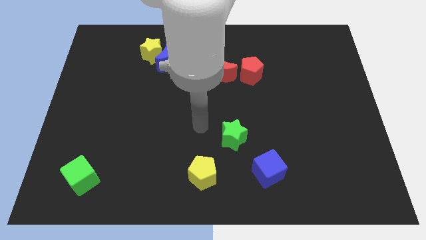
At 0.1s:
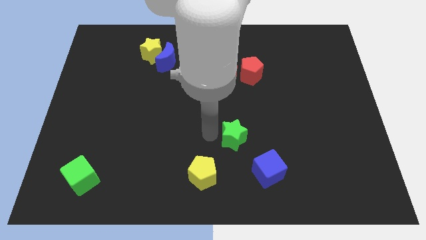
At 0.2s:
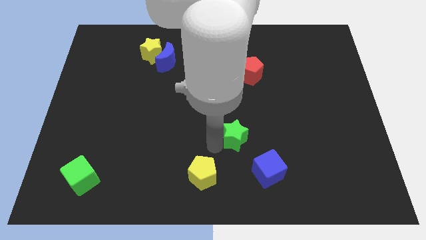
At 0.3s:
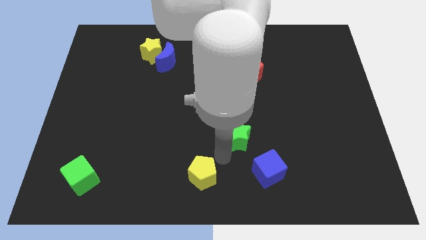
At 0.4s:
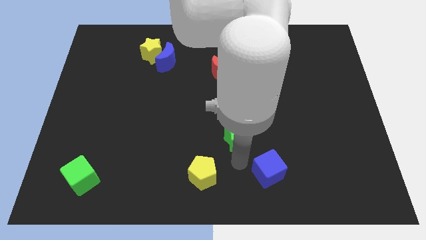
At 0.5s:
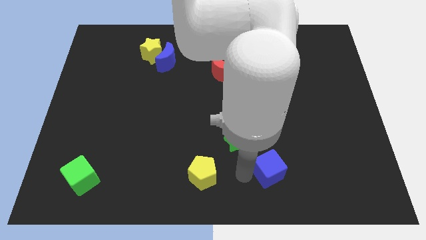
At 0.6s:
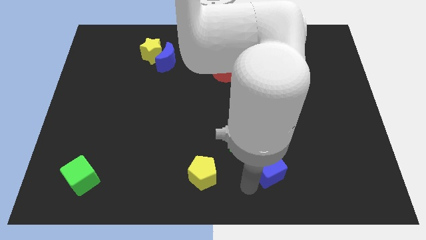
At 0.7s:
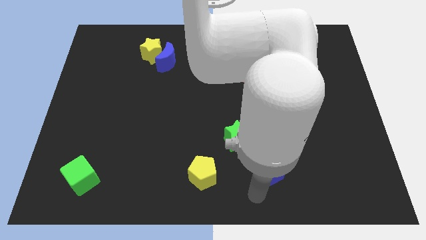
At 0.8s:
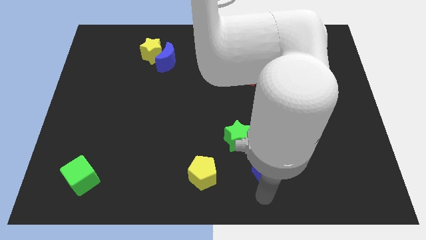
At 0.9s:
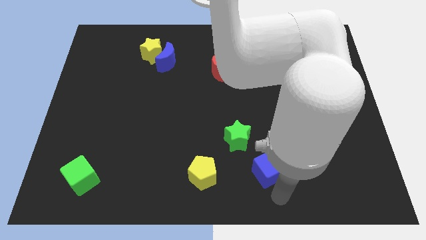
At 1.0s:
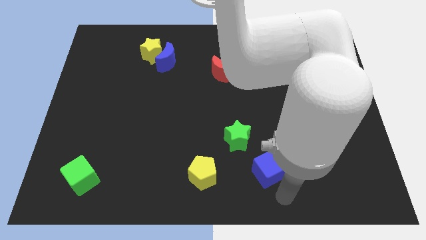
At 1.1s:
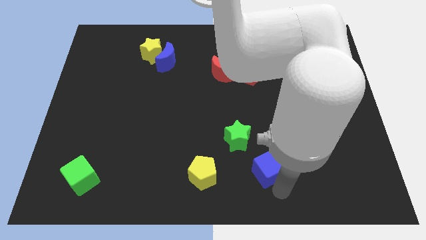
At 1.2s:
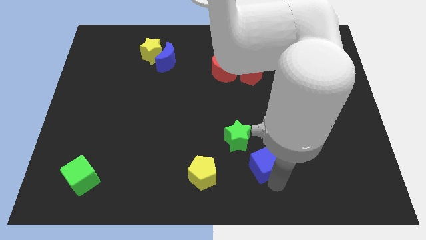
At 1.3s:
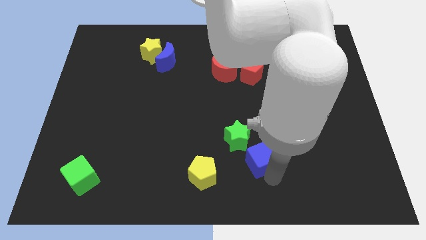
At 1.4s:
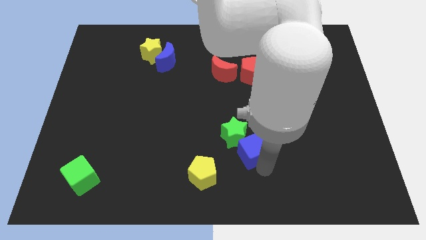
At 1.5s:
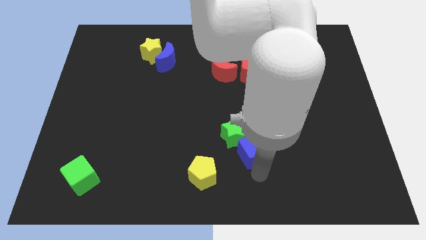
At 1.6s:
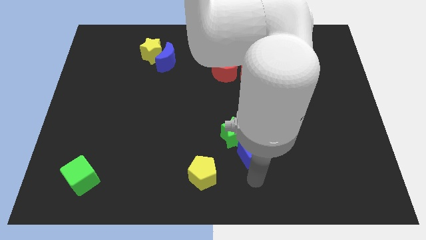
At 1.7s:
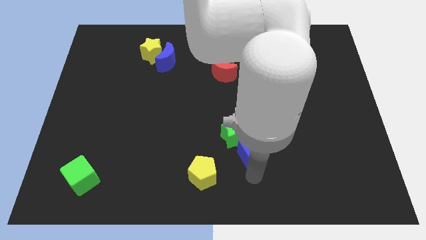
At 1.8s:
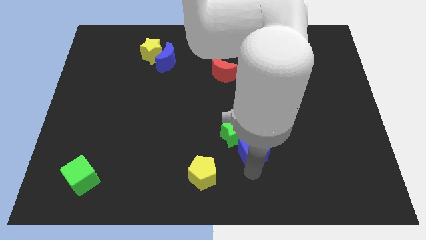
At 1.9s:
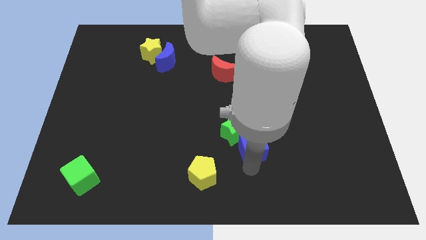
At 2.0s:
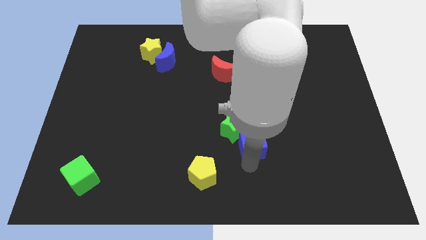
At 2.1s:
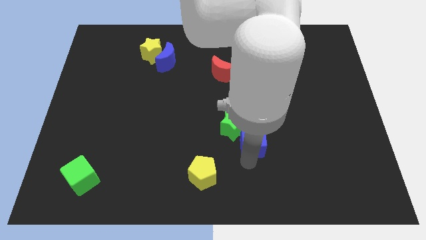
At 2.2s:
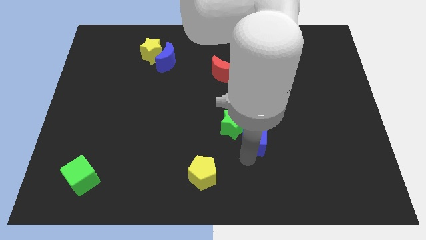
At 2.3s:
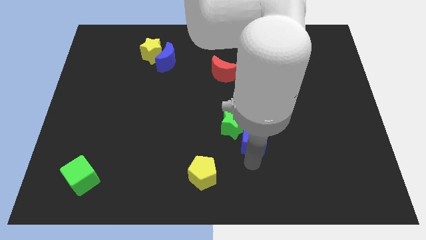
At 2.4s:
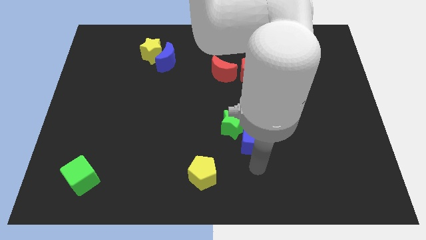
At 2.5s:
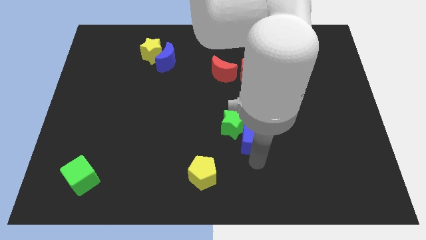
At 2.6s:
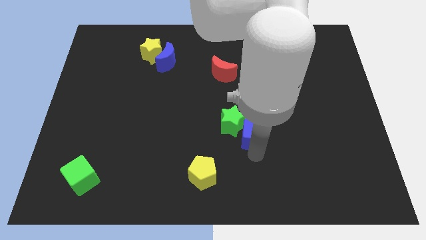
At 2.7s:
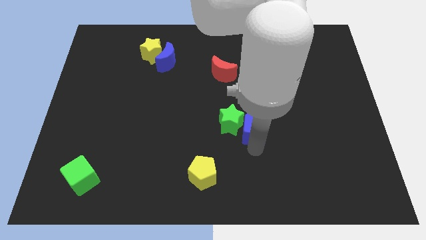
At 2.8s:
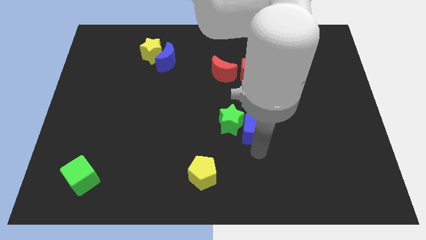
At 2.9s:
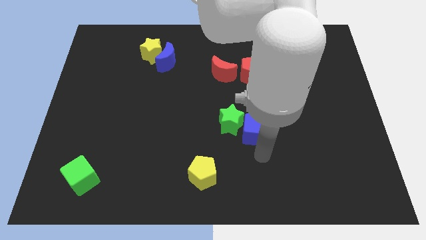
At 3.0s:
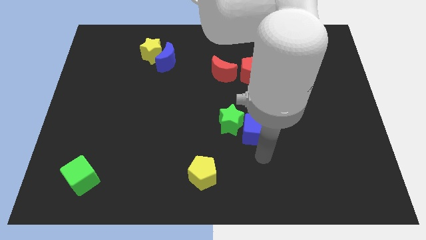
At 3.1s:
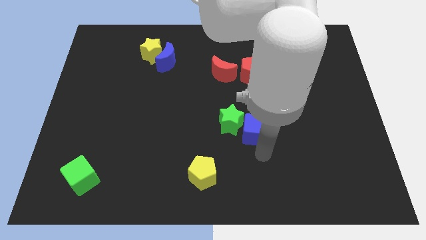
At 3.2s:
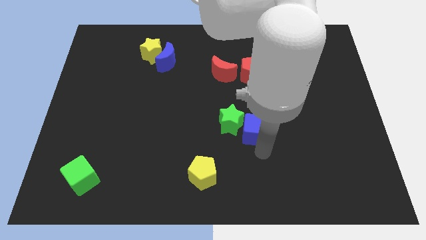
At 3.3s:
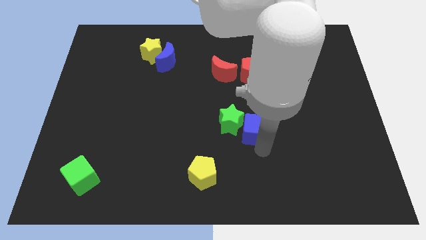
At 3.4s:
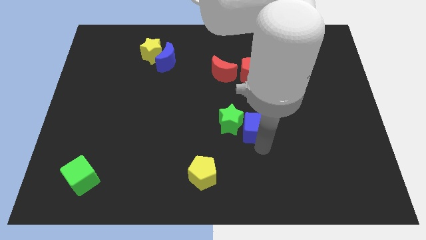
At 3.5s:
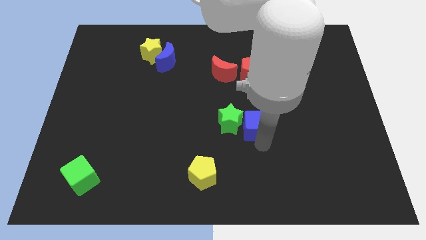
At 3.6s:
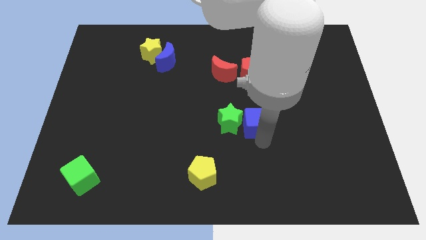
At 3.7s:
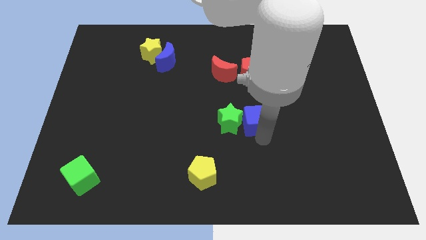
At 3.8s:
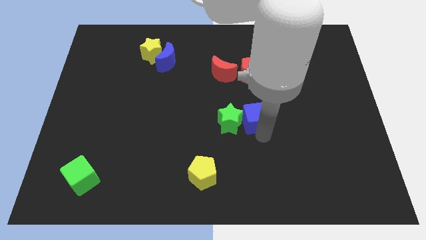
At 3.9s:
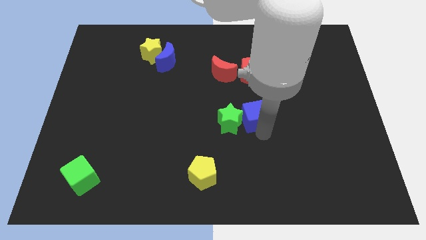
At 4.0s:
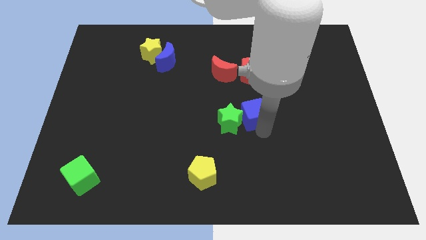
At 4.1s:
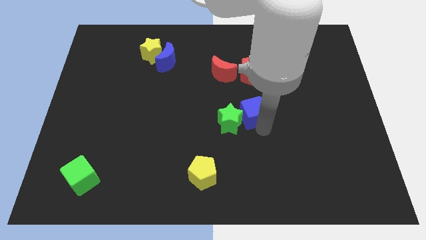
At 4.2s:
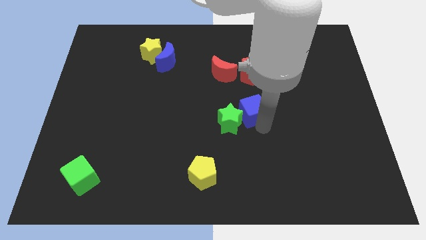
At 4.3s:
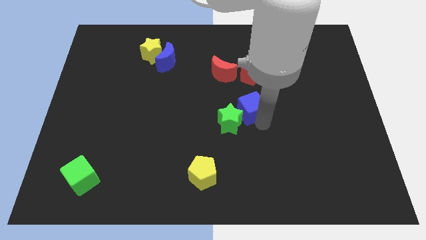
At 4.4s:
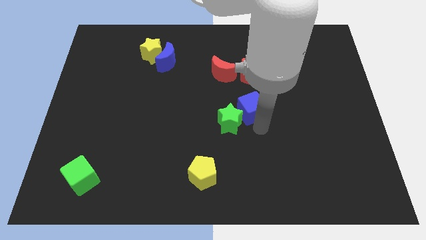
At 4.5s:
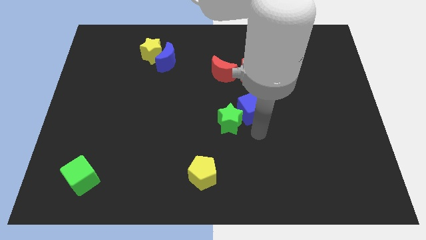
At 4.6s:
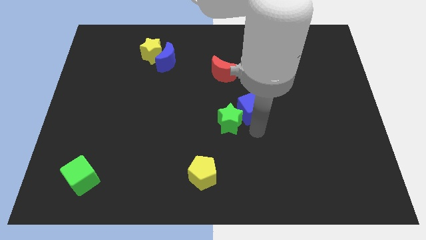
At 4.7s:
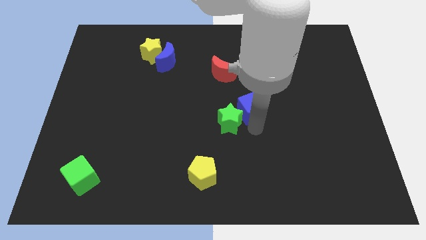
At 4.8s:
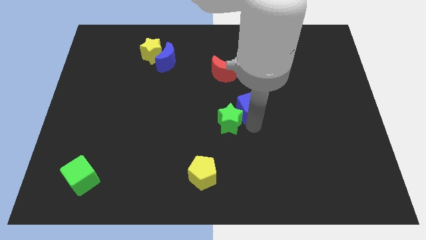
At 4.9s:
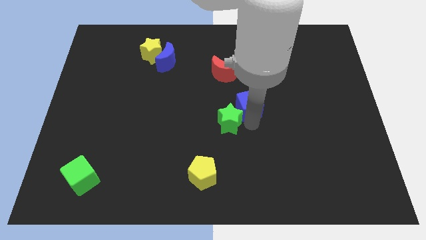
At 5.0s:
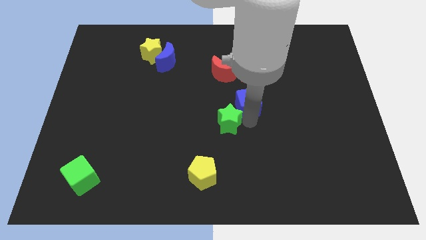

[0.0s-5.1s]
move the blue cube to the bottom right of the red moon

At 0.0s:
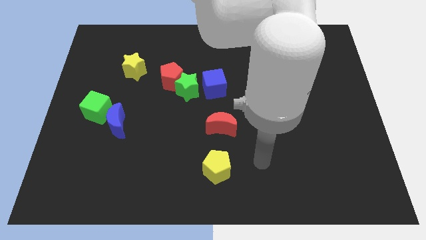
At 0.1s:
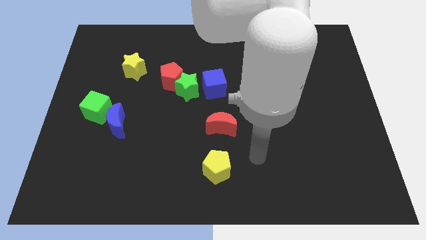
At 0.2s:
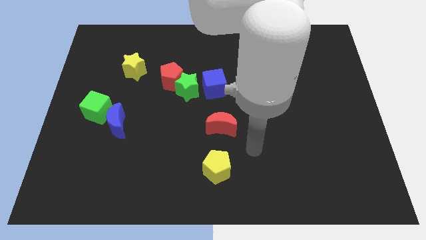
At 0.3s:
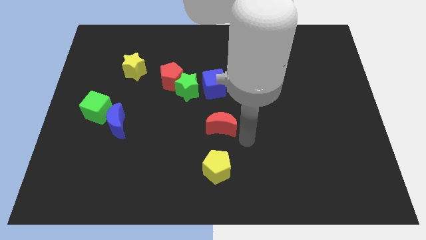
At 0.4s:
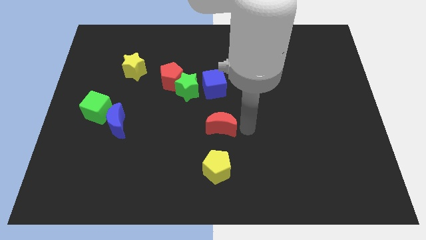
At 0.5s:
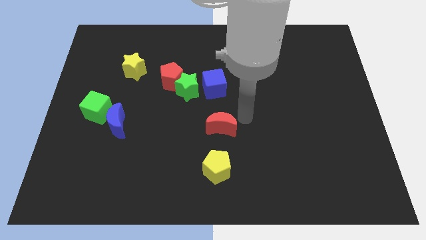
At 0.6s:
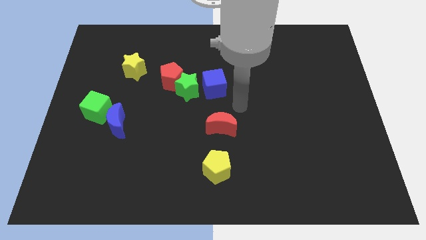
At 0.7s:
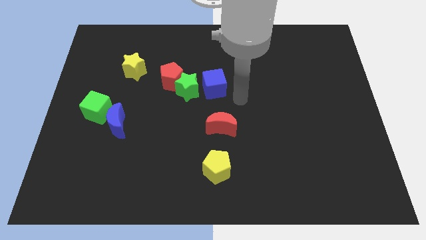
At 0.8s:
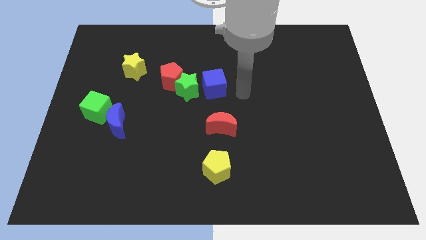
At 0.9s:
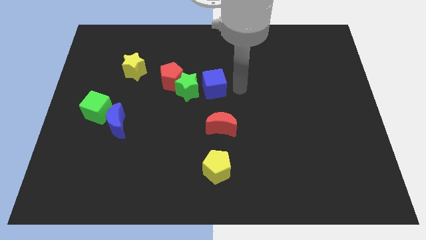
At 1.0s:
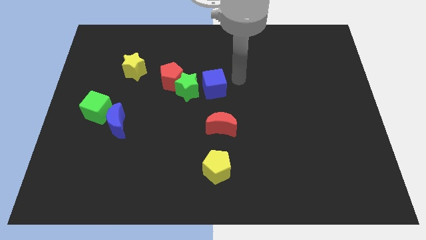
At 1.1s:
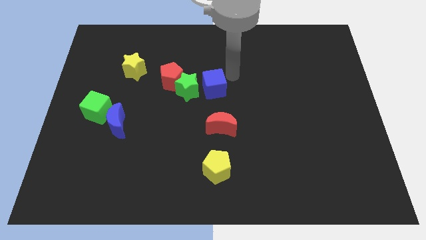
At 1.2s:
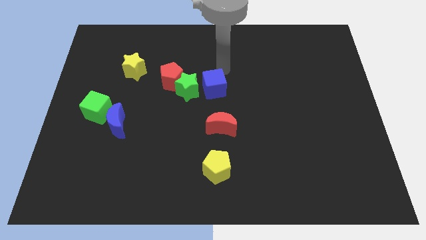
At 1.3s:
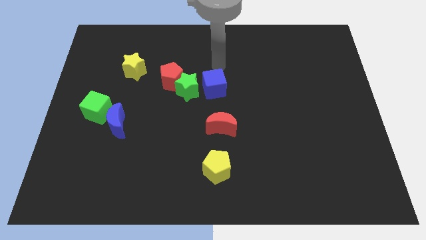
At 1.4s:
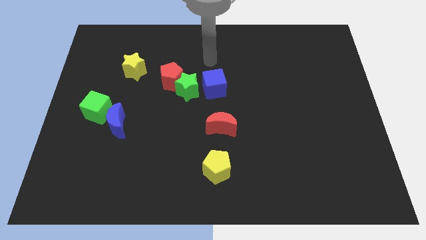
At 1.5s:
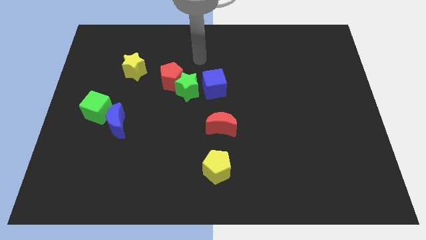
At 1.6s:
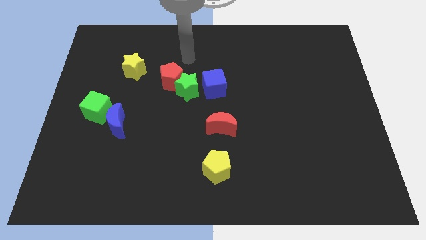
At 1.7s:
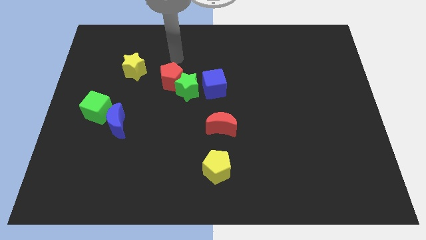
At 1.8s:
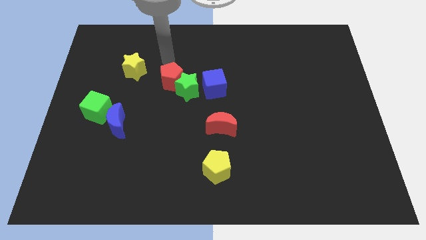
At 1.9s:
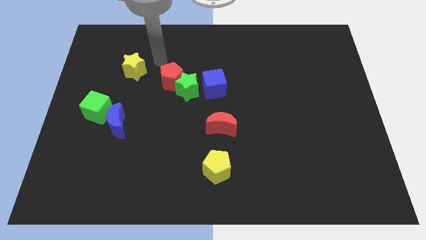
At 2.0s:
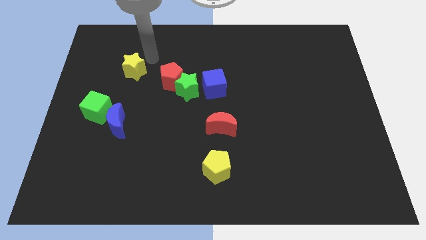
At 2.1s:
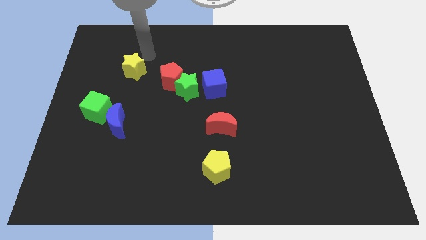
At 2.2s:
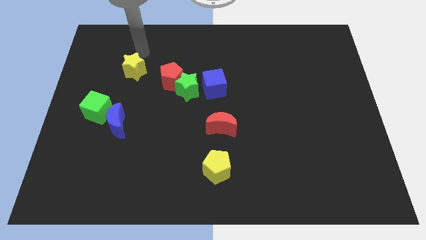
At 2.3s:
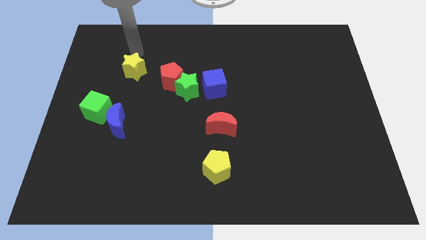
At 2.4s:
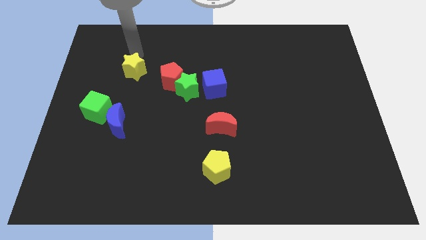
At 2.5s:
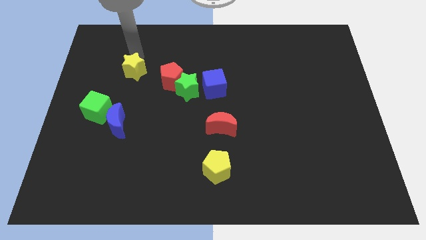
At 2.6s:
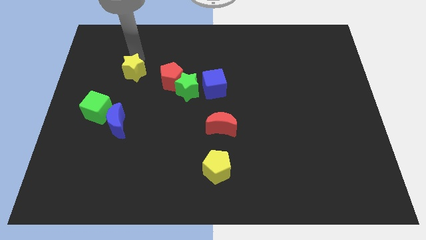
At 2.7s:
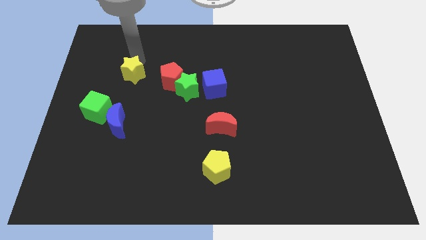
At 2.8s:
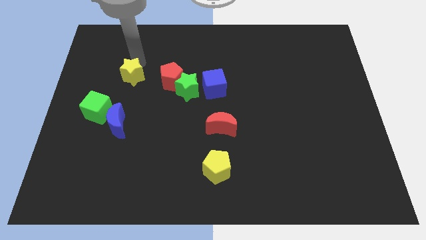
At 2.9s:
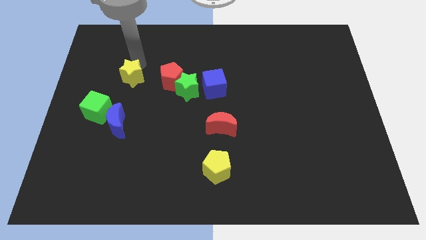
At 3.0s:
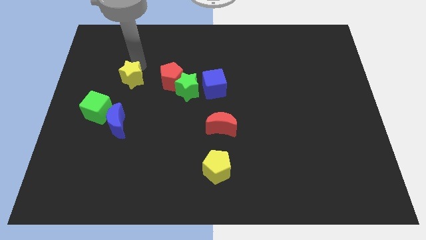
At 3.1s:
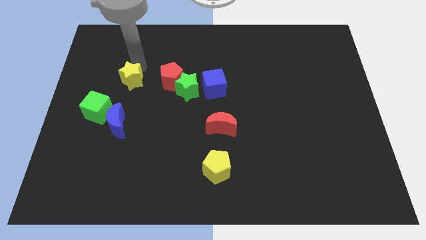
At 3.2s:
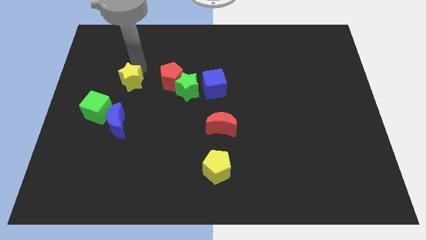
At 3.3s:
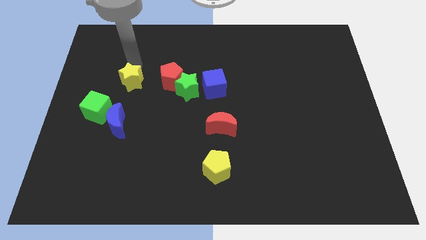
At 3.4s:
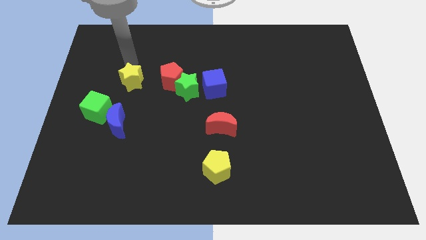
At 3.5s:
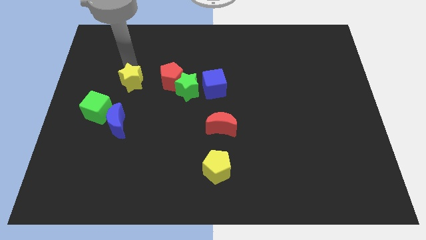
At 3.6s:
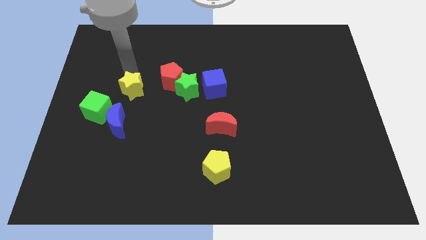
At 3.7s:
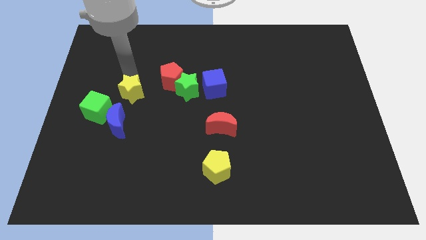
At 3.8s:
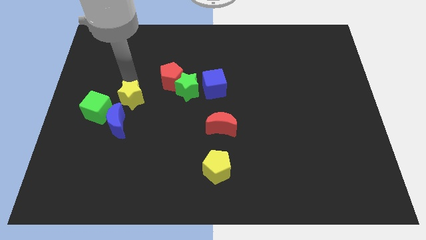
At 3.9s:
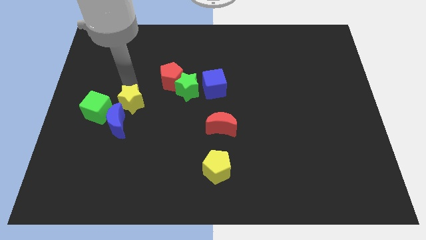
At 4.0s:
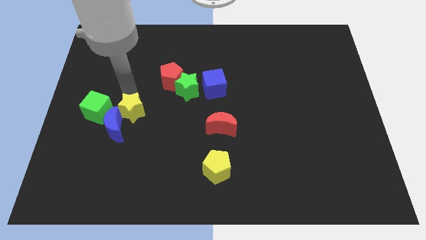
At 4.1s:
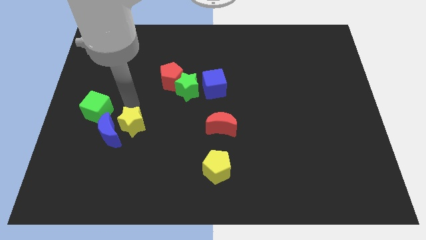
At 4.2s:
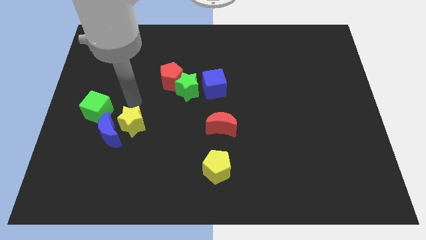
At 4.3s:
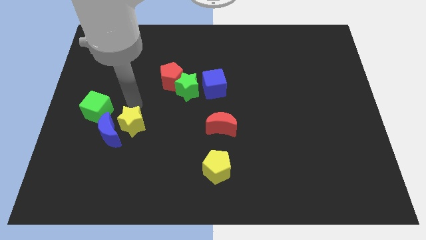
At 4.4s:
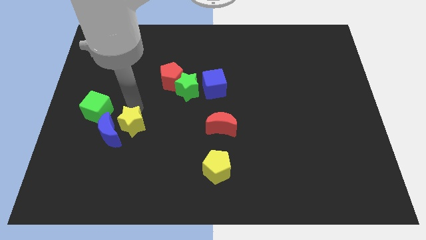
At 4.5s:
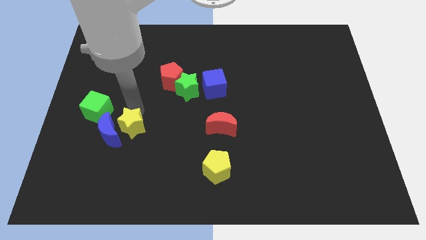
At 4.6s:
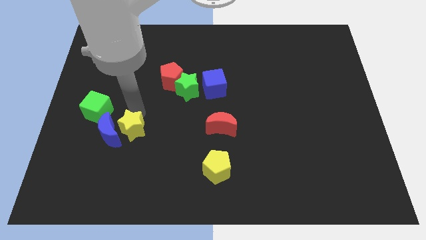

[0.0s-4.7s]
put the yellow star diagonally down and to the right of the blue moon
